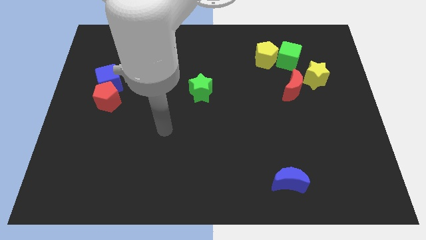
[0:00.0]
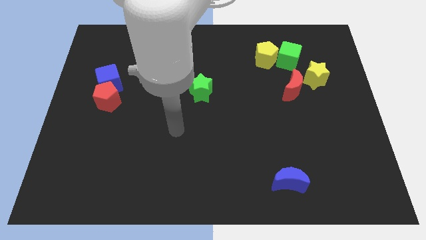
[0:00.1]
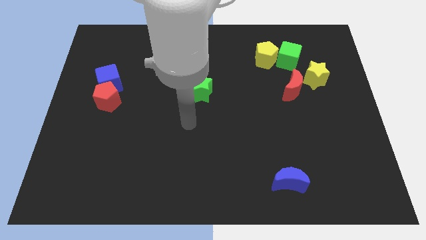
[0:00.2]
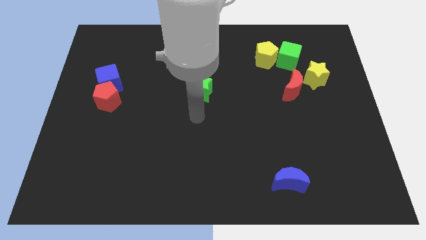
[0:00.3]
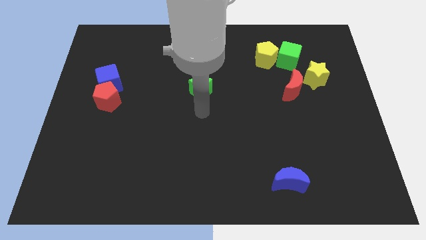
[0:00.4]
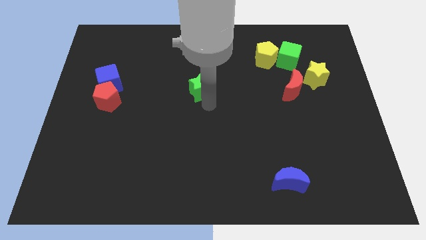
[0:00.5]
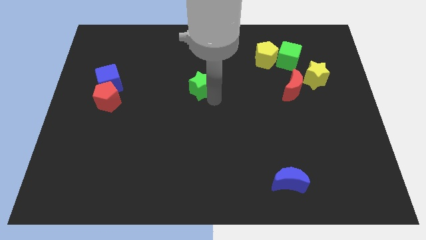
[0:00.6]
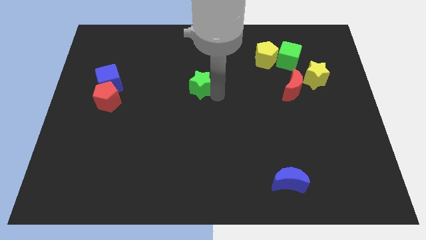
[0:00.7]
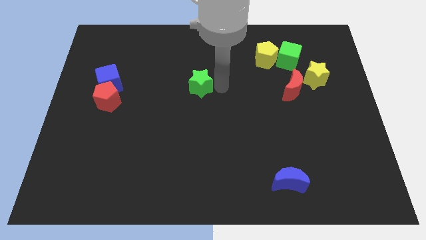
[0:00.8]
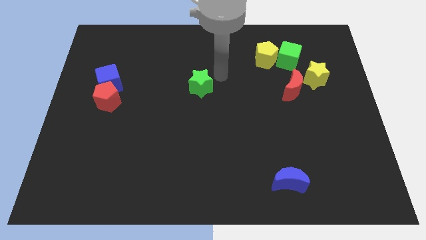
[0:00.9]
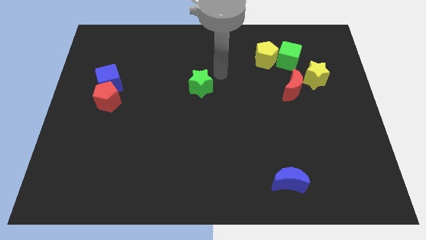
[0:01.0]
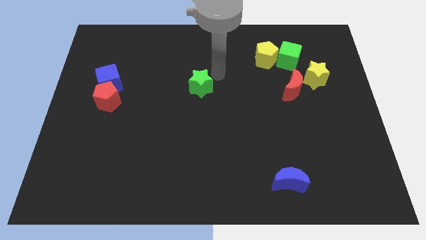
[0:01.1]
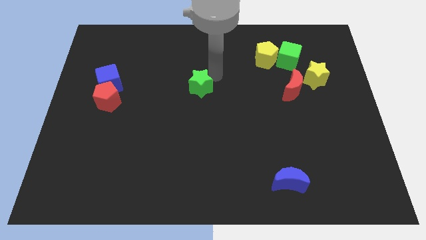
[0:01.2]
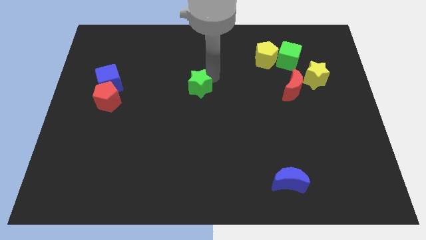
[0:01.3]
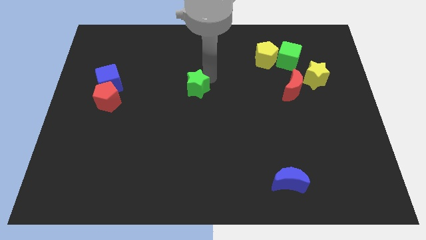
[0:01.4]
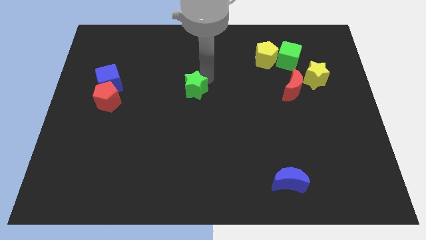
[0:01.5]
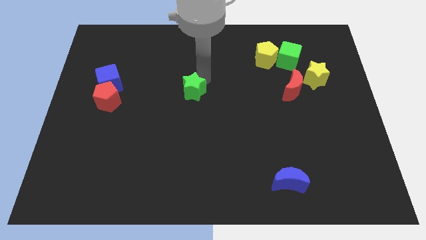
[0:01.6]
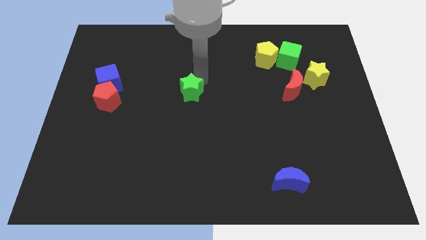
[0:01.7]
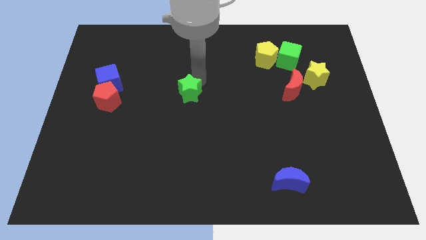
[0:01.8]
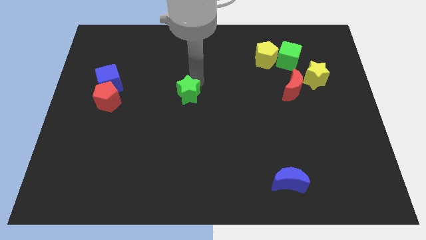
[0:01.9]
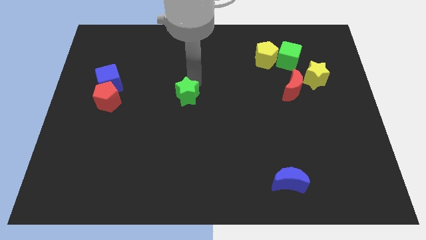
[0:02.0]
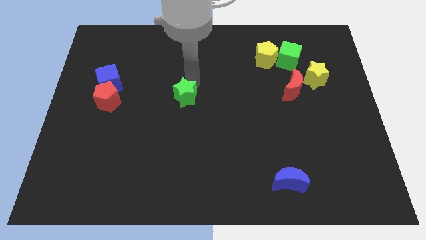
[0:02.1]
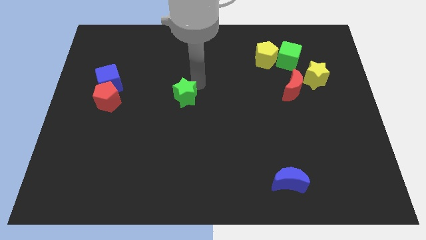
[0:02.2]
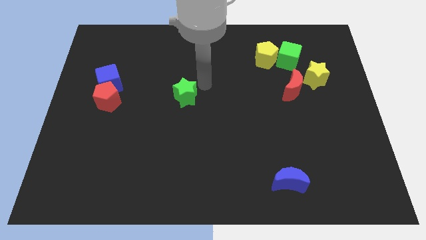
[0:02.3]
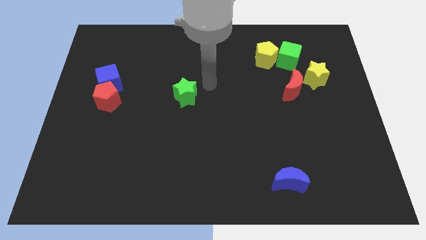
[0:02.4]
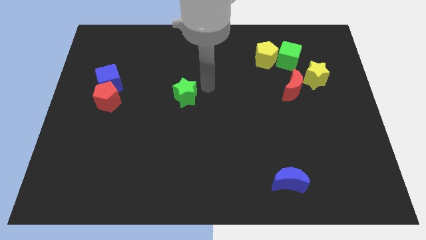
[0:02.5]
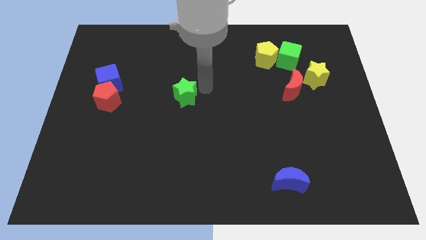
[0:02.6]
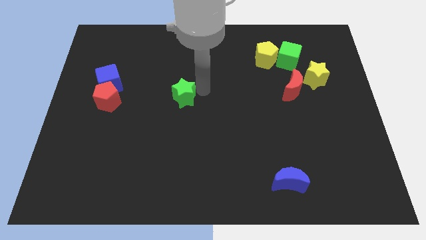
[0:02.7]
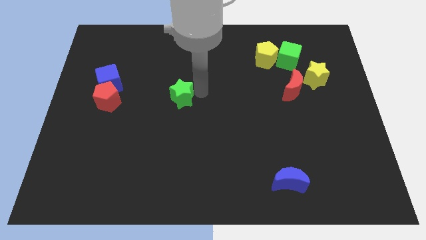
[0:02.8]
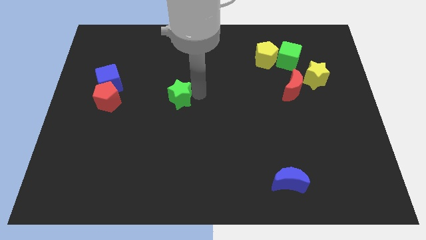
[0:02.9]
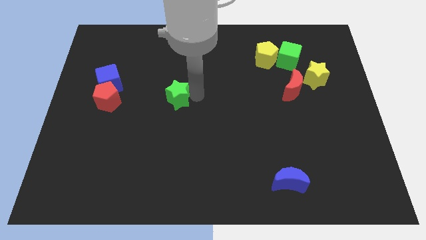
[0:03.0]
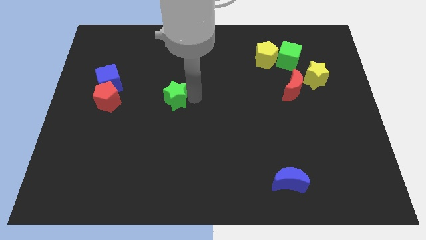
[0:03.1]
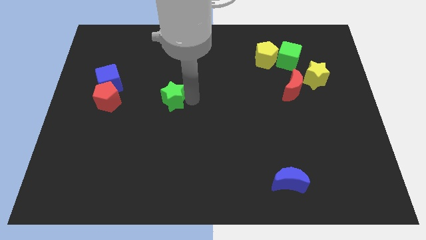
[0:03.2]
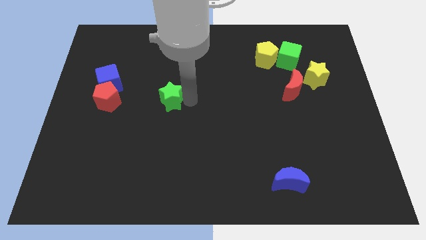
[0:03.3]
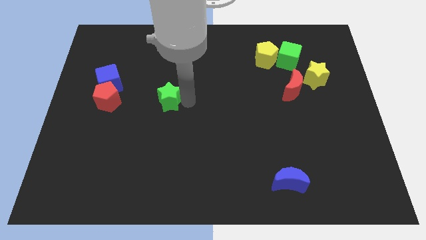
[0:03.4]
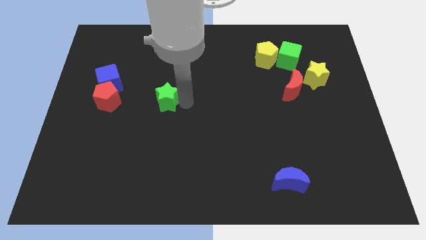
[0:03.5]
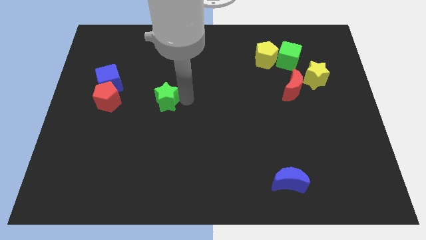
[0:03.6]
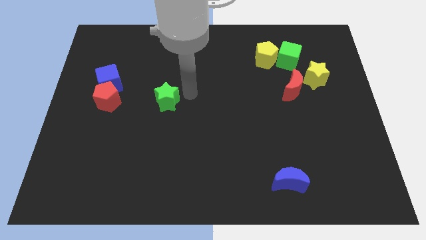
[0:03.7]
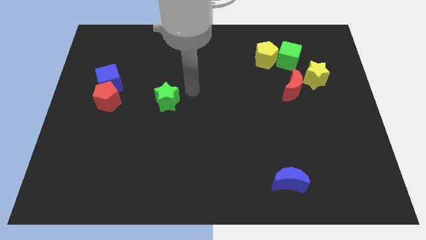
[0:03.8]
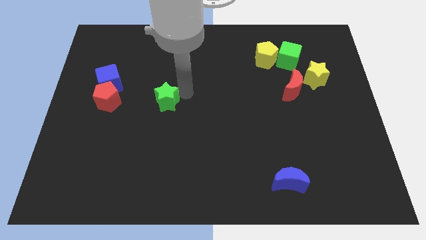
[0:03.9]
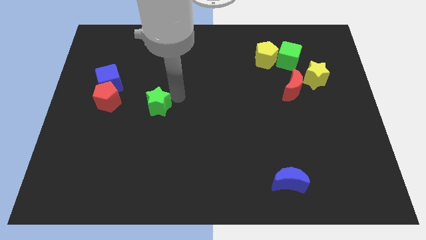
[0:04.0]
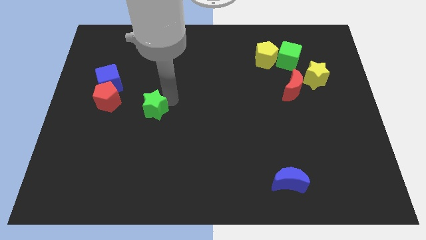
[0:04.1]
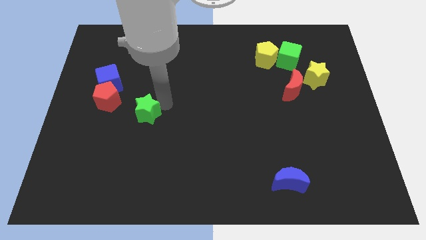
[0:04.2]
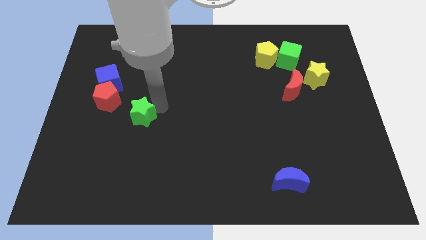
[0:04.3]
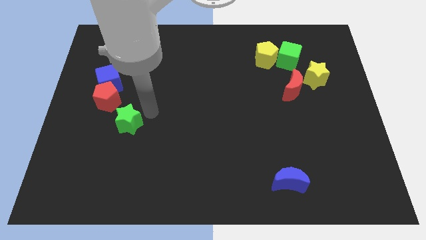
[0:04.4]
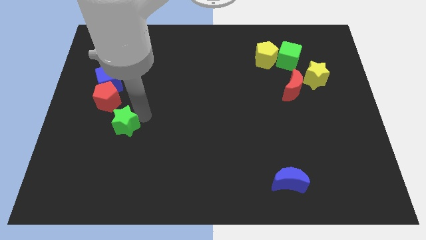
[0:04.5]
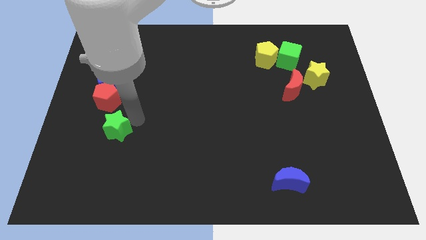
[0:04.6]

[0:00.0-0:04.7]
move the green star to the bottom of the red pentagon

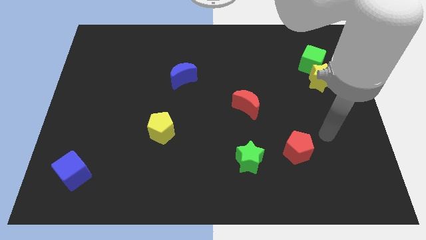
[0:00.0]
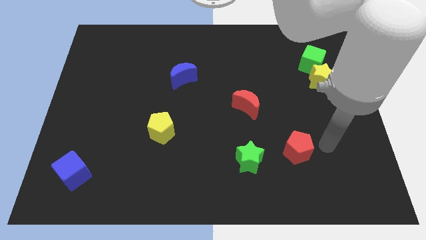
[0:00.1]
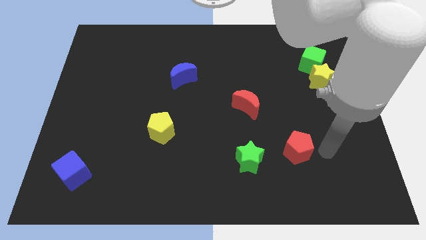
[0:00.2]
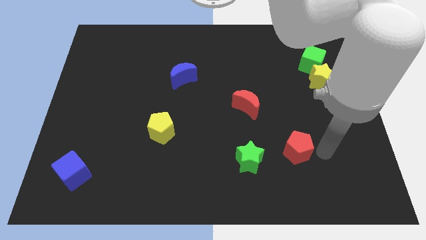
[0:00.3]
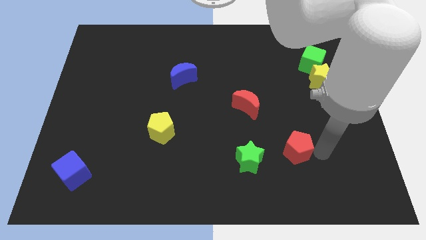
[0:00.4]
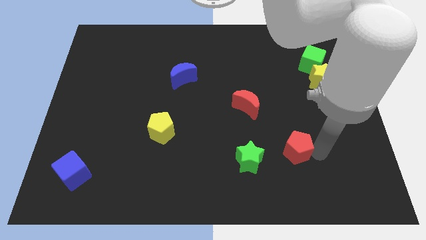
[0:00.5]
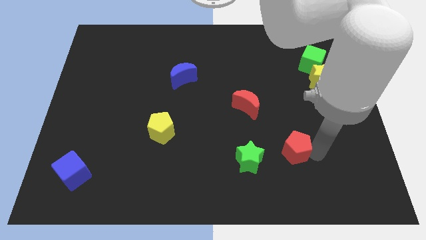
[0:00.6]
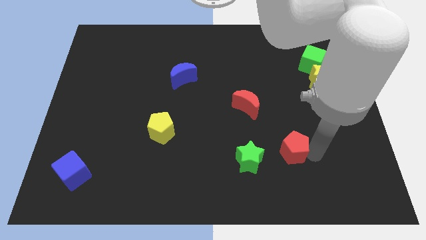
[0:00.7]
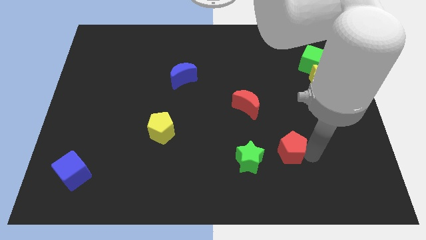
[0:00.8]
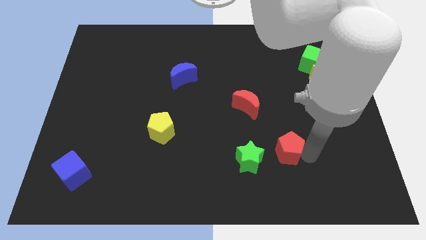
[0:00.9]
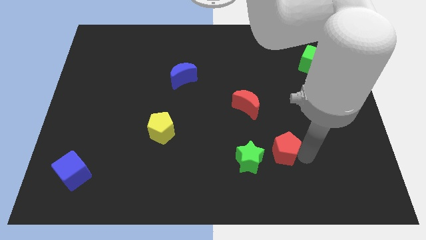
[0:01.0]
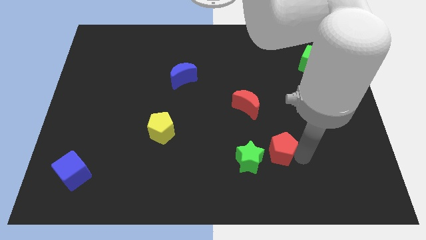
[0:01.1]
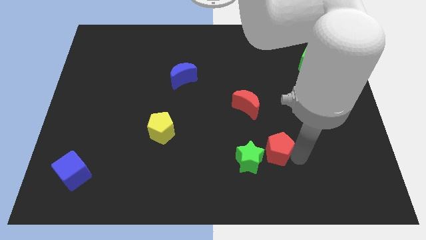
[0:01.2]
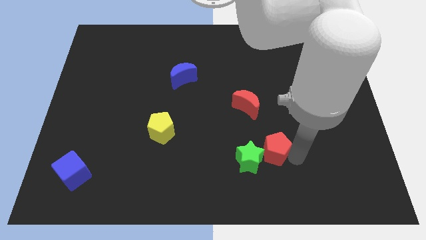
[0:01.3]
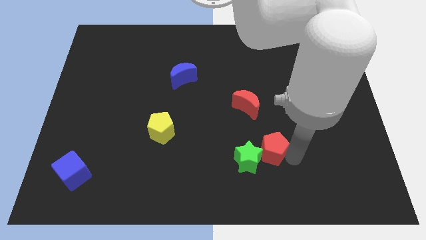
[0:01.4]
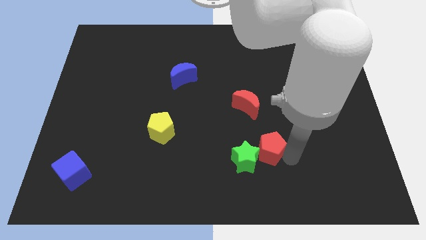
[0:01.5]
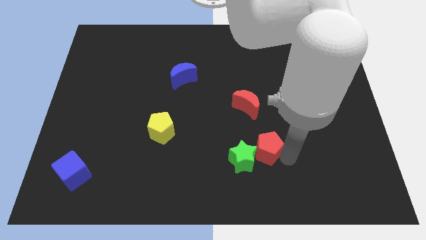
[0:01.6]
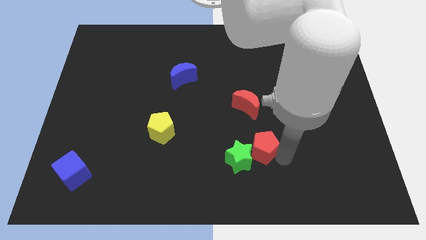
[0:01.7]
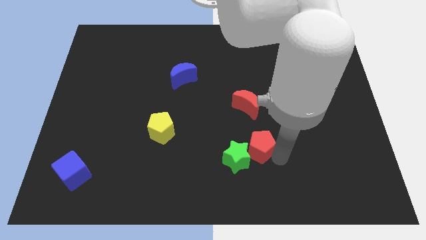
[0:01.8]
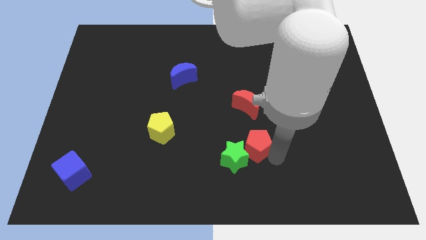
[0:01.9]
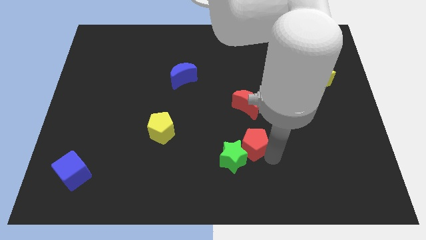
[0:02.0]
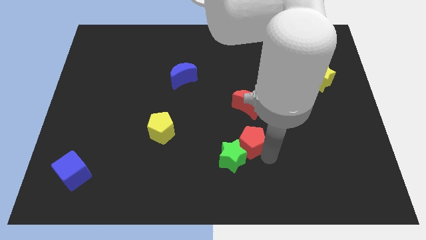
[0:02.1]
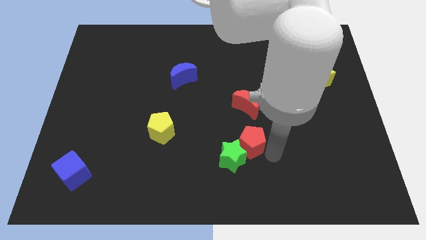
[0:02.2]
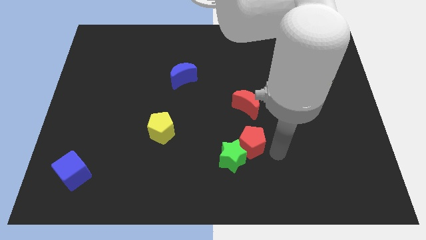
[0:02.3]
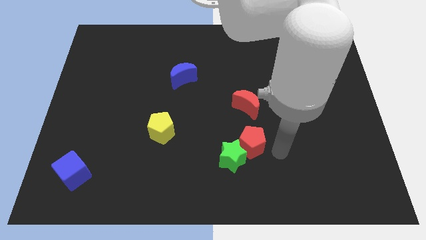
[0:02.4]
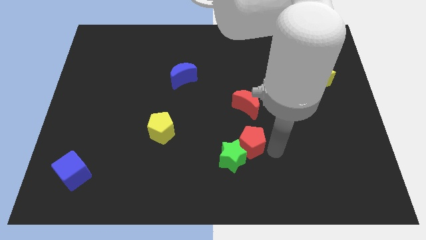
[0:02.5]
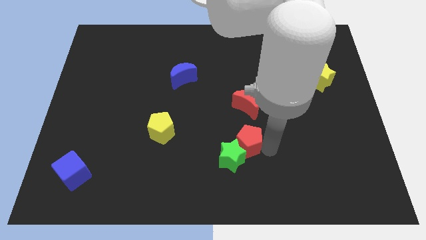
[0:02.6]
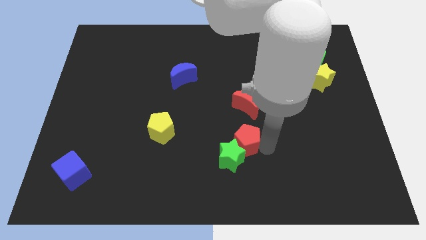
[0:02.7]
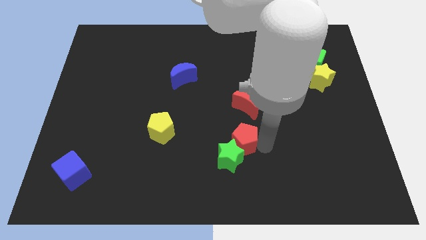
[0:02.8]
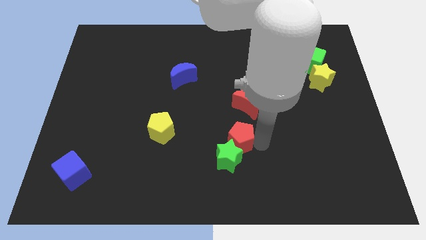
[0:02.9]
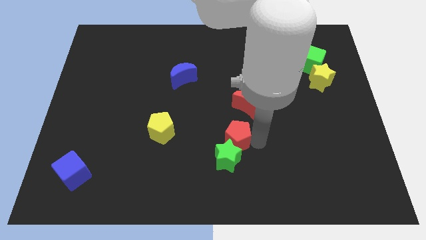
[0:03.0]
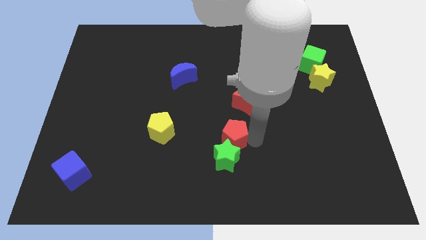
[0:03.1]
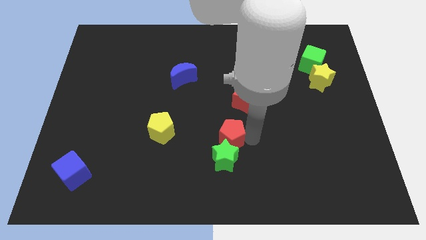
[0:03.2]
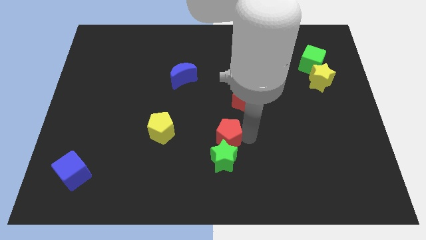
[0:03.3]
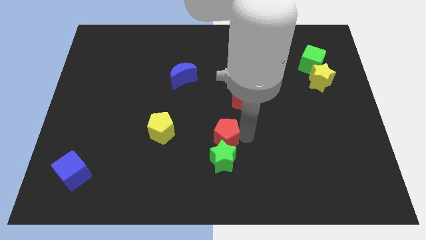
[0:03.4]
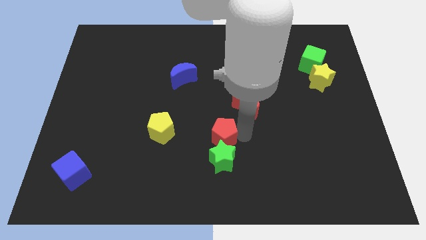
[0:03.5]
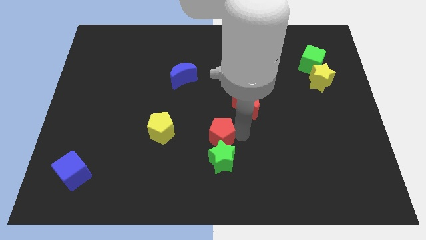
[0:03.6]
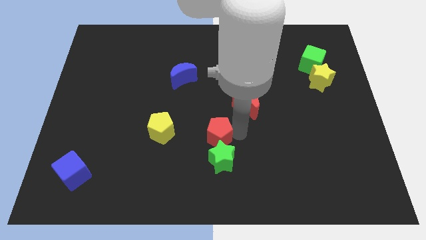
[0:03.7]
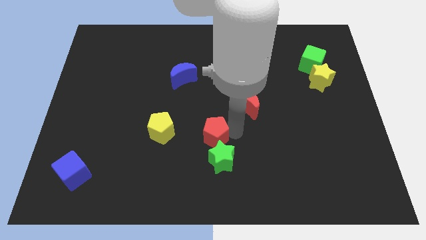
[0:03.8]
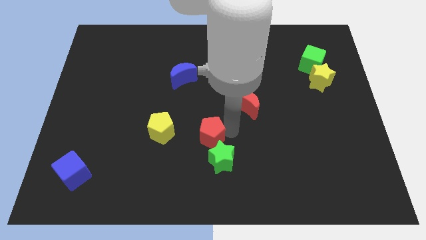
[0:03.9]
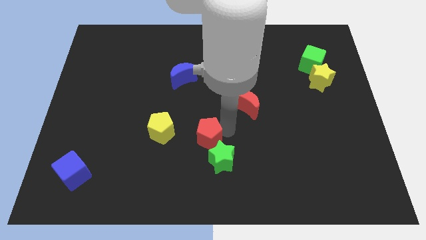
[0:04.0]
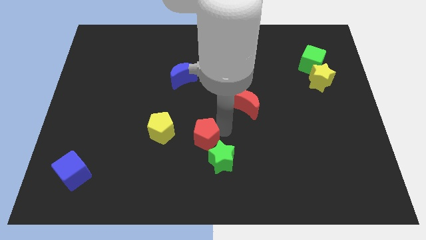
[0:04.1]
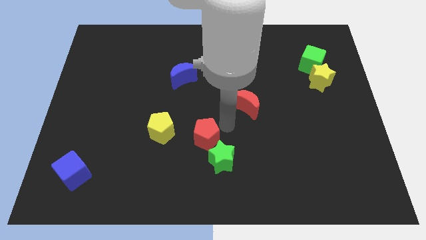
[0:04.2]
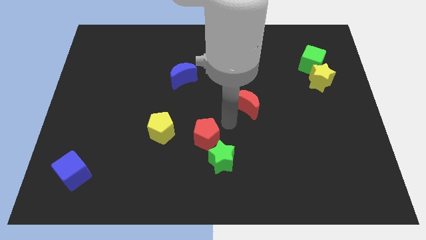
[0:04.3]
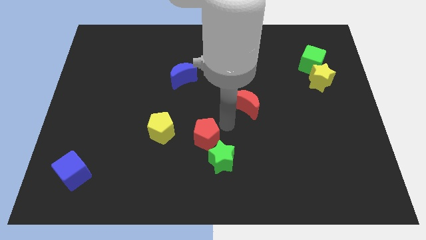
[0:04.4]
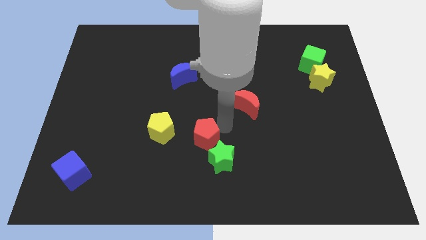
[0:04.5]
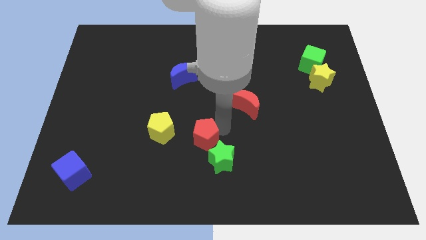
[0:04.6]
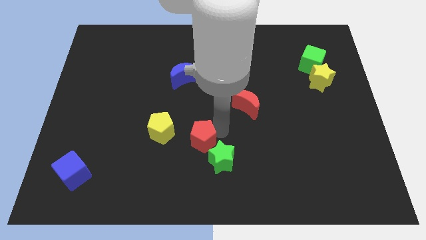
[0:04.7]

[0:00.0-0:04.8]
slide the red pentagon diagonally down and to the right of the yellow pentagon
